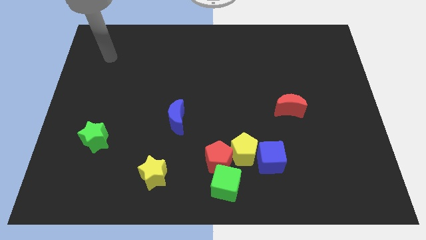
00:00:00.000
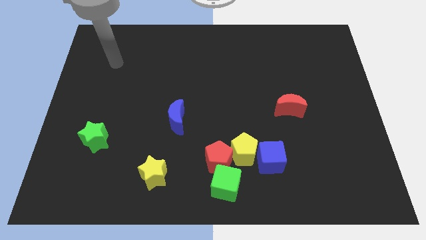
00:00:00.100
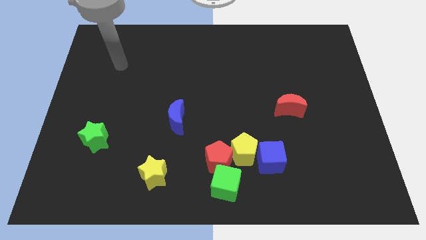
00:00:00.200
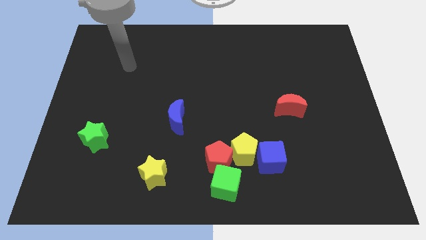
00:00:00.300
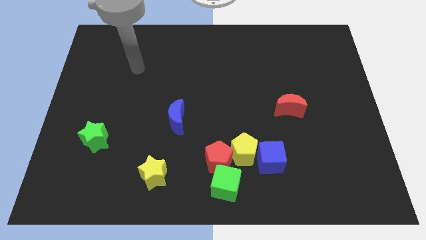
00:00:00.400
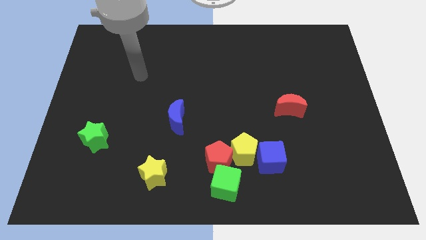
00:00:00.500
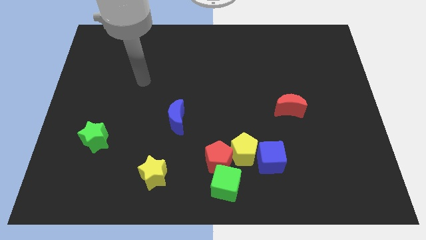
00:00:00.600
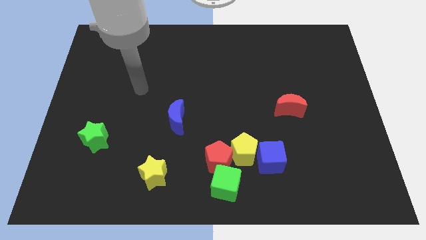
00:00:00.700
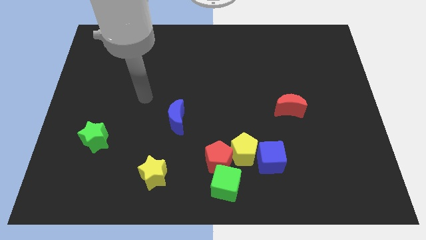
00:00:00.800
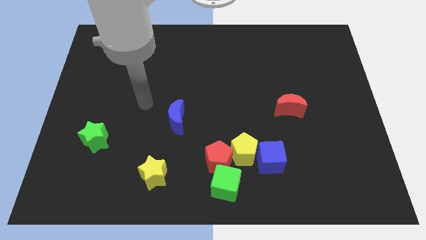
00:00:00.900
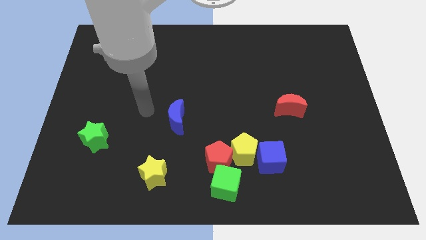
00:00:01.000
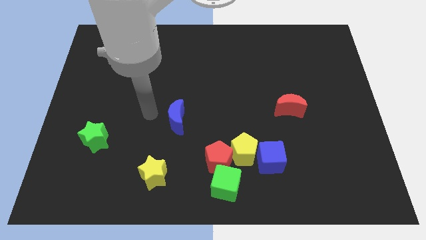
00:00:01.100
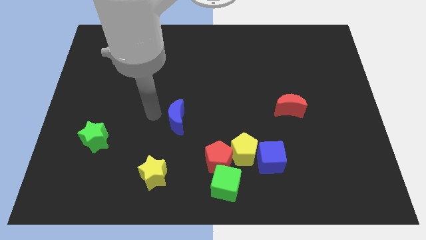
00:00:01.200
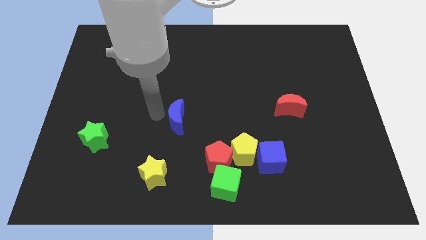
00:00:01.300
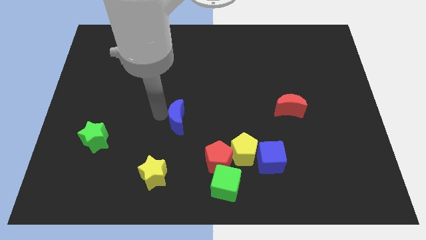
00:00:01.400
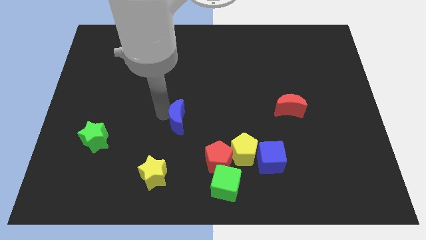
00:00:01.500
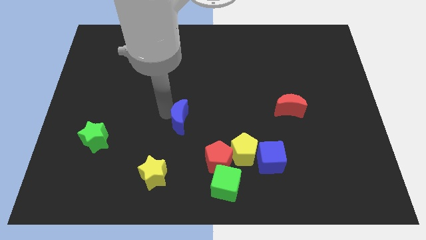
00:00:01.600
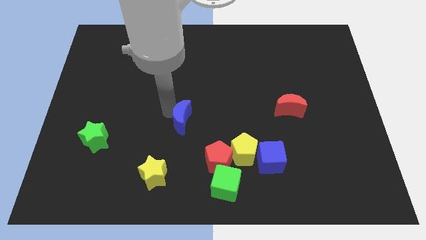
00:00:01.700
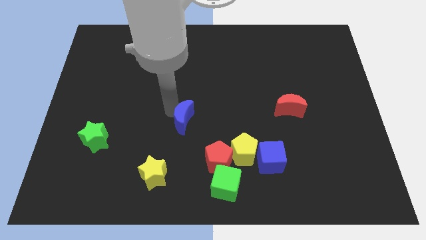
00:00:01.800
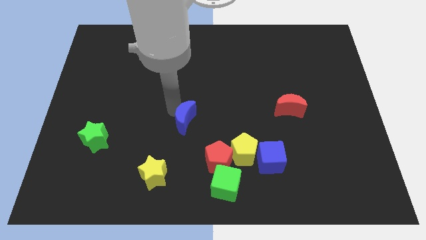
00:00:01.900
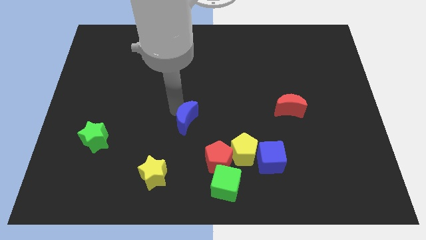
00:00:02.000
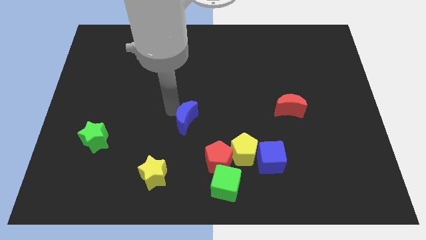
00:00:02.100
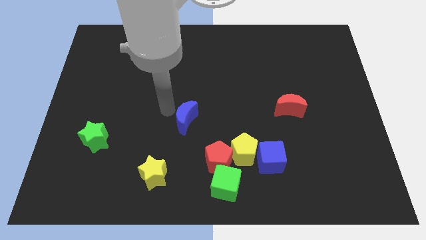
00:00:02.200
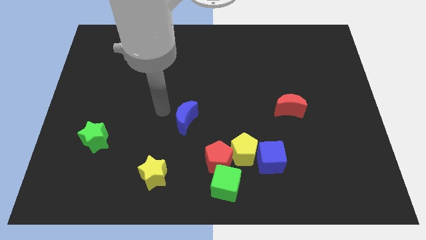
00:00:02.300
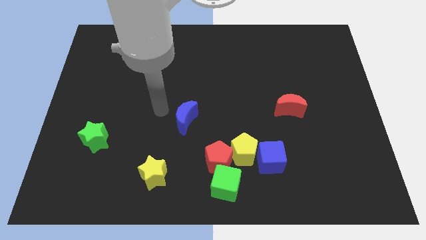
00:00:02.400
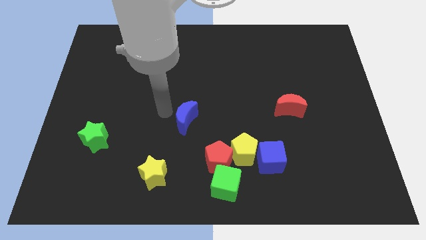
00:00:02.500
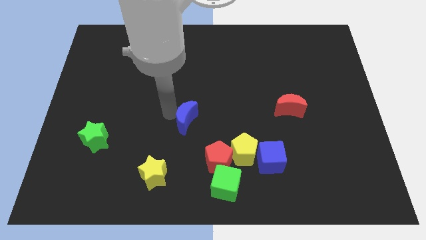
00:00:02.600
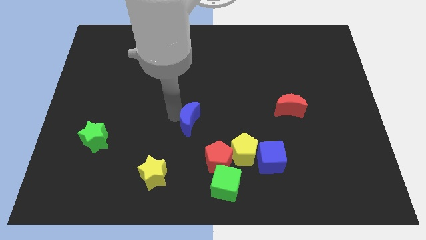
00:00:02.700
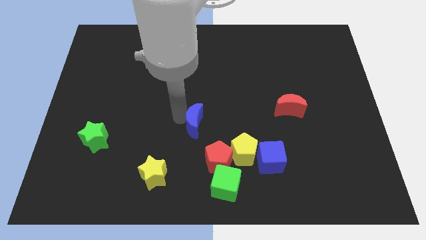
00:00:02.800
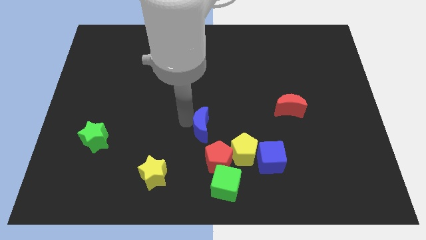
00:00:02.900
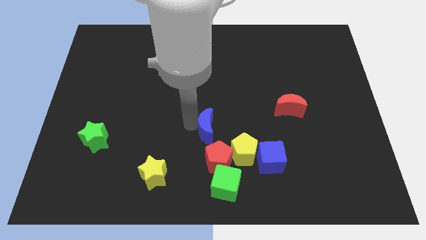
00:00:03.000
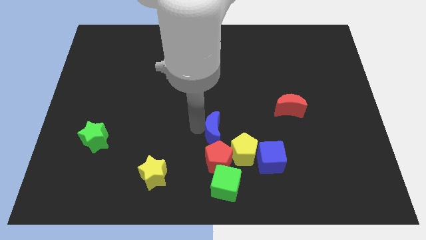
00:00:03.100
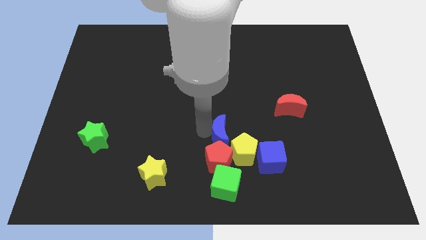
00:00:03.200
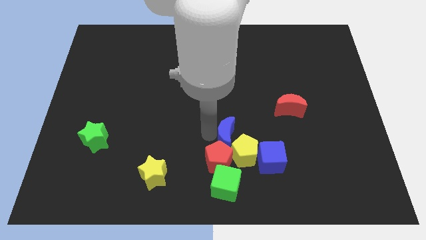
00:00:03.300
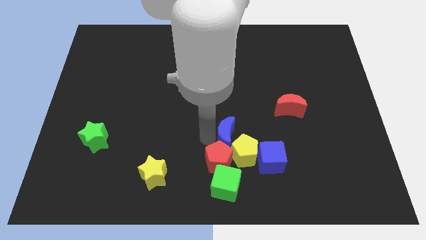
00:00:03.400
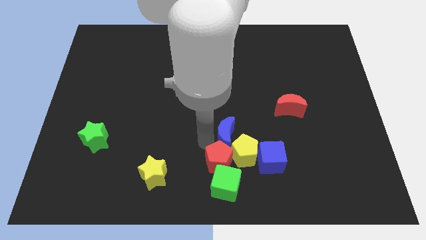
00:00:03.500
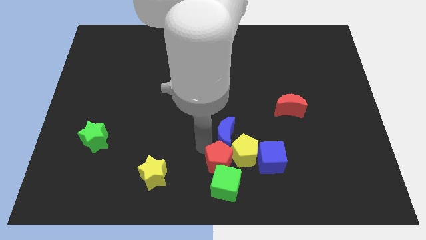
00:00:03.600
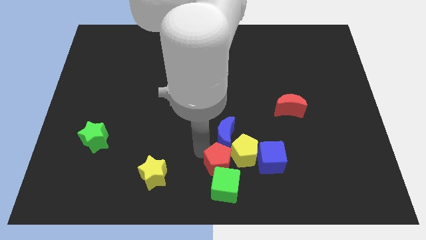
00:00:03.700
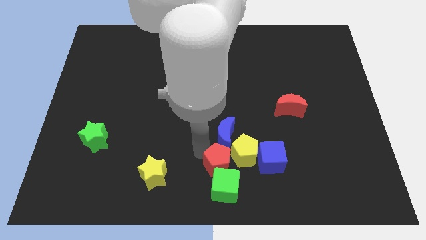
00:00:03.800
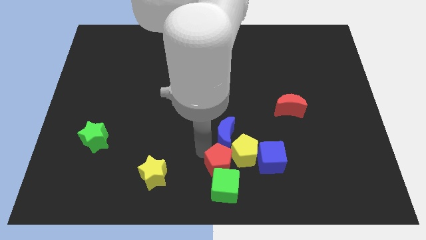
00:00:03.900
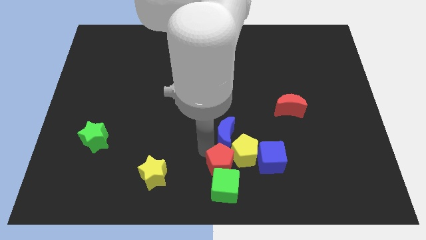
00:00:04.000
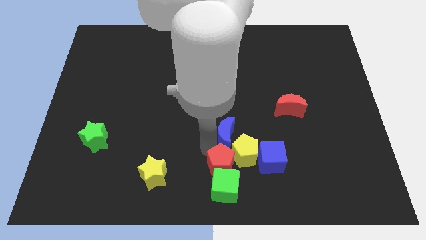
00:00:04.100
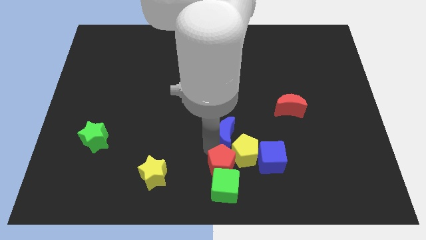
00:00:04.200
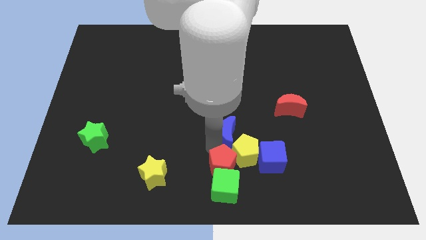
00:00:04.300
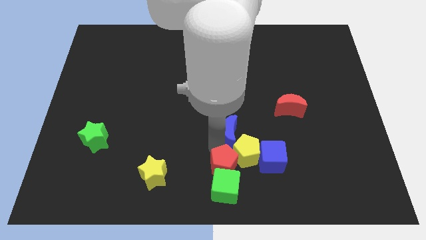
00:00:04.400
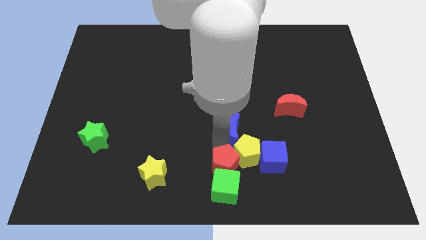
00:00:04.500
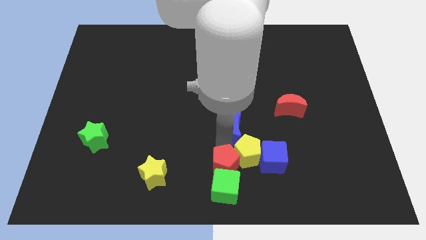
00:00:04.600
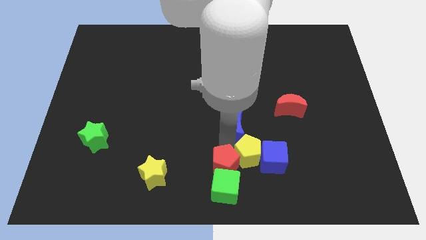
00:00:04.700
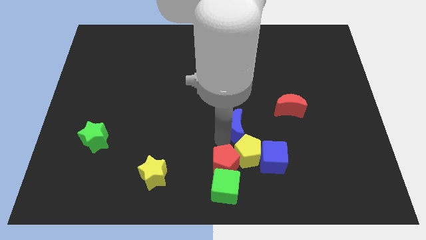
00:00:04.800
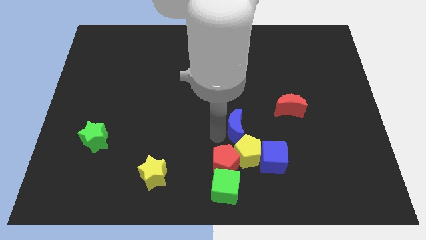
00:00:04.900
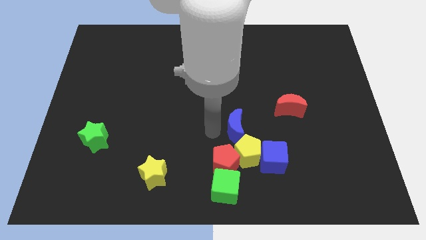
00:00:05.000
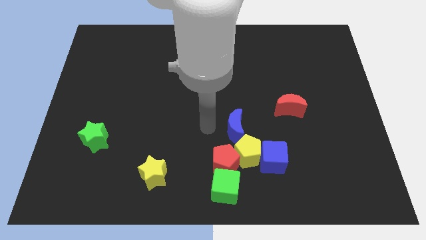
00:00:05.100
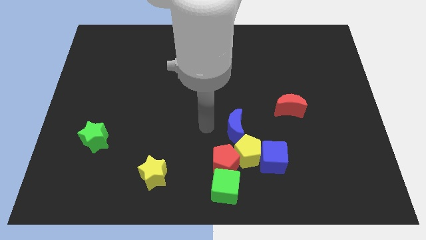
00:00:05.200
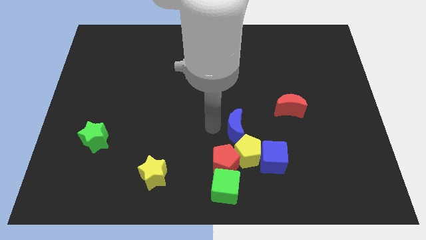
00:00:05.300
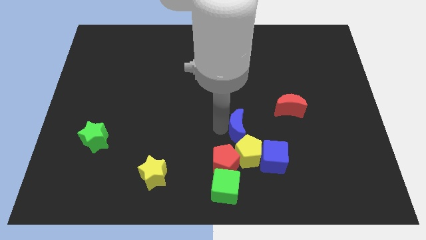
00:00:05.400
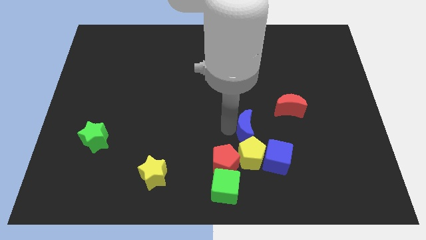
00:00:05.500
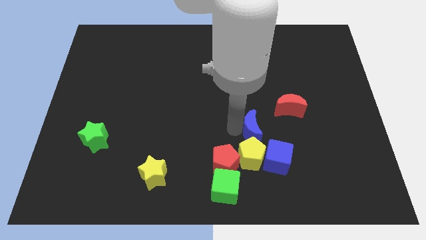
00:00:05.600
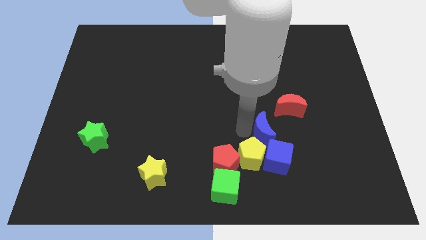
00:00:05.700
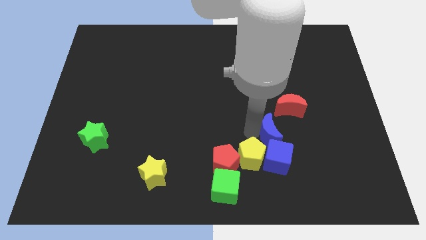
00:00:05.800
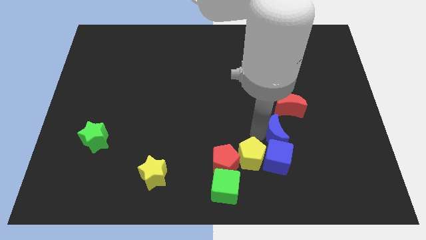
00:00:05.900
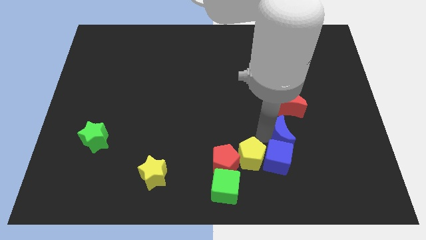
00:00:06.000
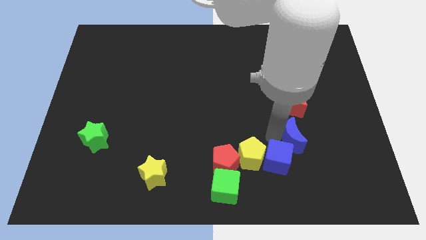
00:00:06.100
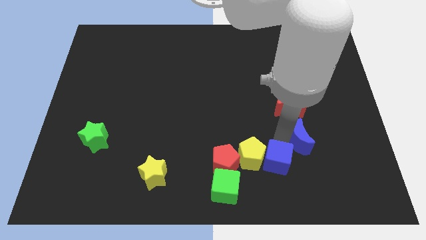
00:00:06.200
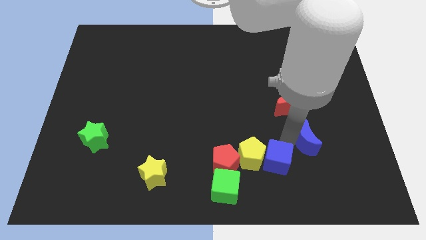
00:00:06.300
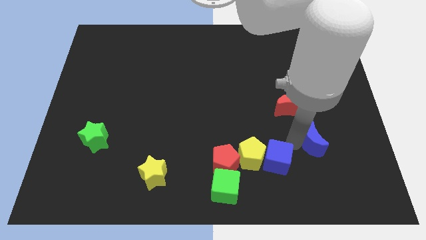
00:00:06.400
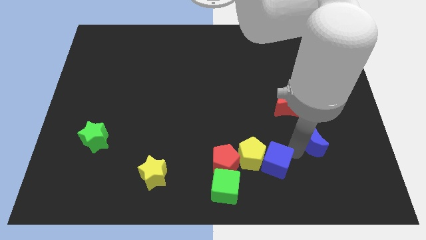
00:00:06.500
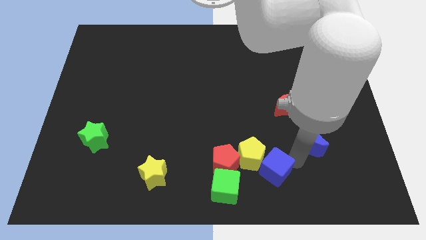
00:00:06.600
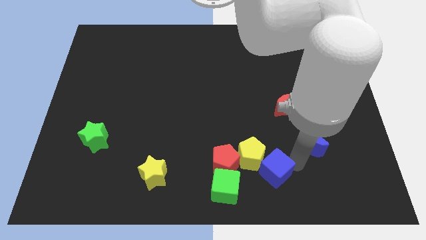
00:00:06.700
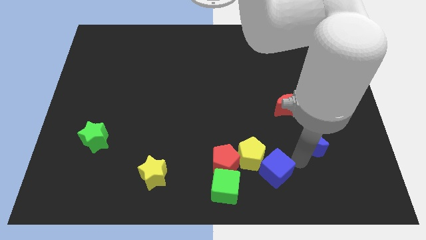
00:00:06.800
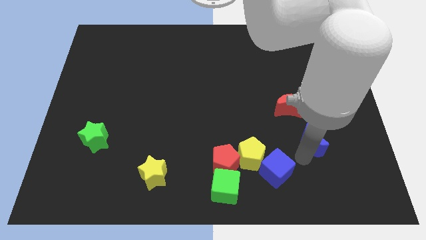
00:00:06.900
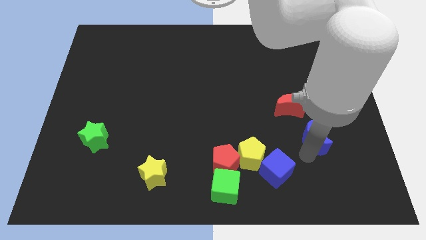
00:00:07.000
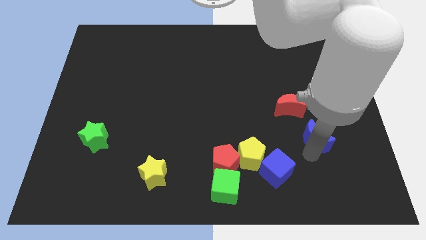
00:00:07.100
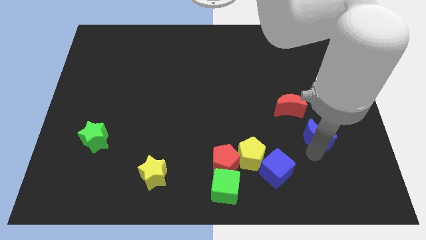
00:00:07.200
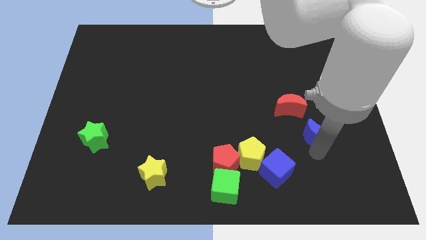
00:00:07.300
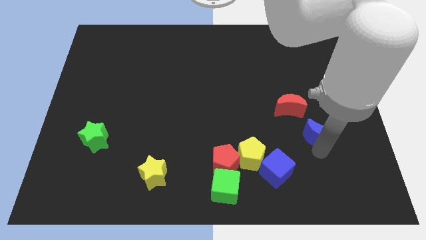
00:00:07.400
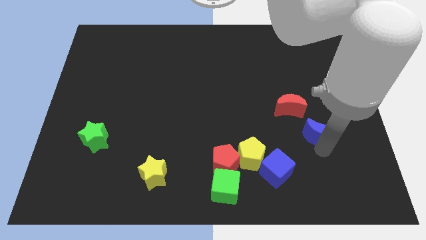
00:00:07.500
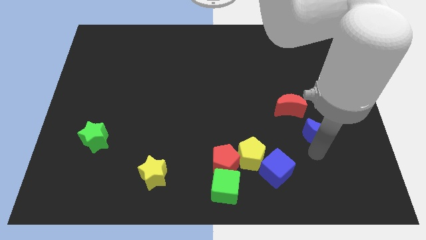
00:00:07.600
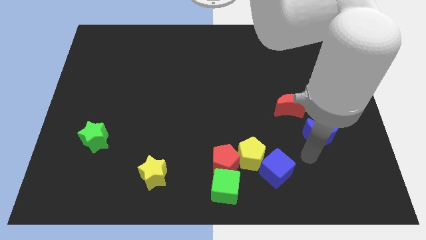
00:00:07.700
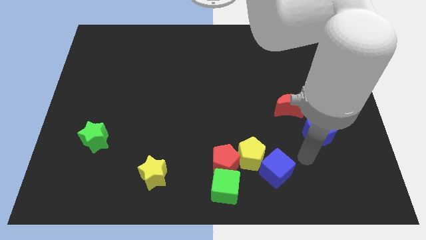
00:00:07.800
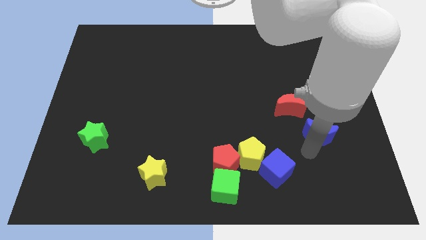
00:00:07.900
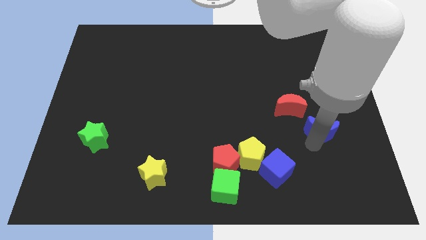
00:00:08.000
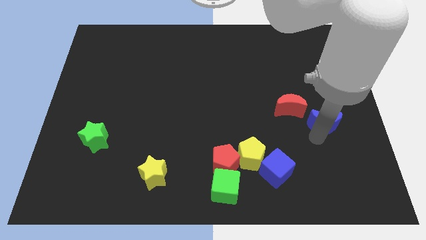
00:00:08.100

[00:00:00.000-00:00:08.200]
push the blue moon just right of the red moon
